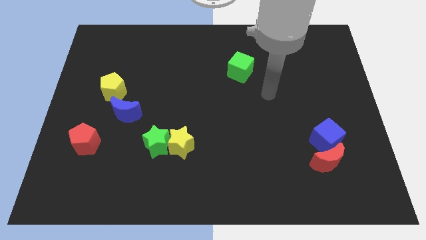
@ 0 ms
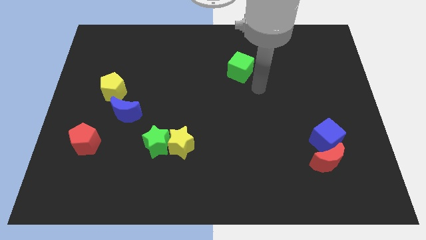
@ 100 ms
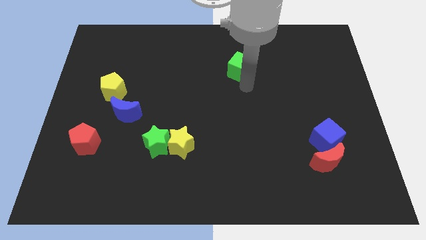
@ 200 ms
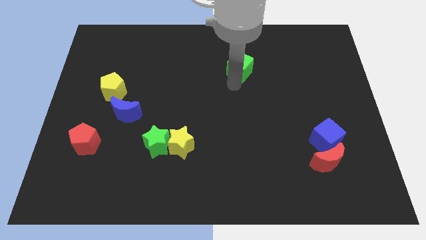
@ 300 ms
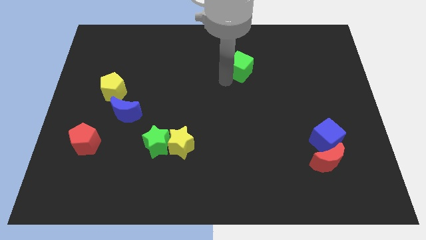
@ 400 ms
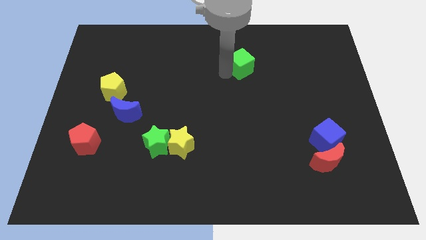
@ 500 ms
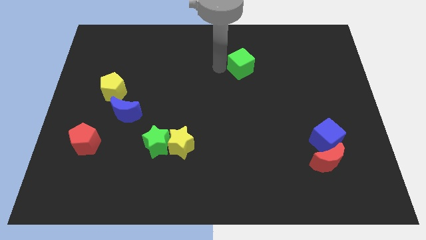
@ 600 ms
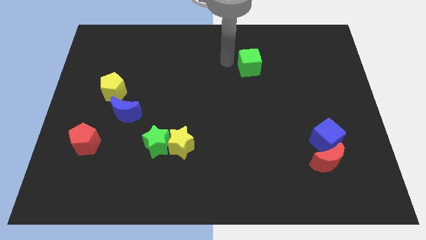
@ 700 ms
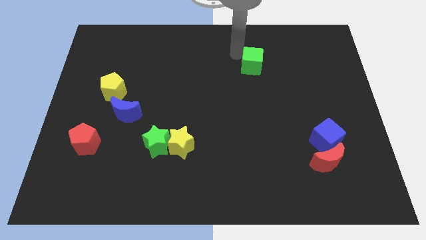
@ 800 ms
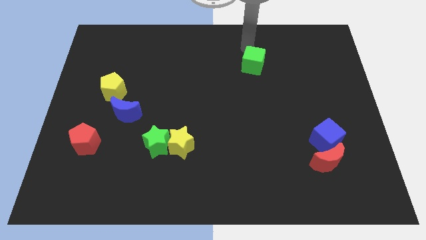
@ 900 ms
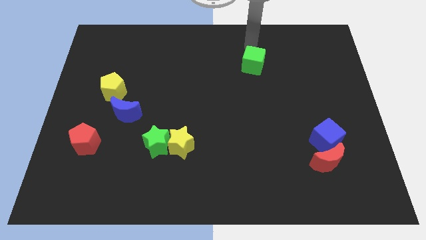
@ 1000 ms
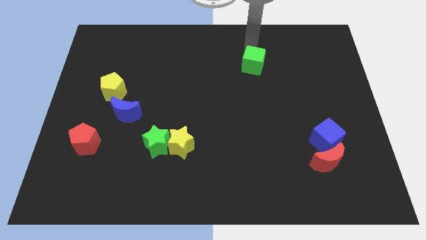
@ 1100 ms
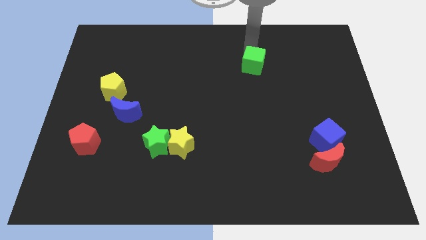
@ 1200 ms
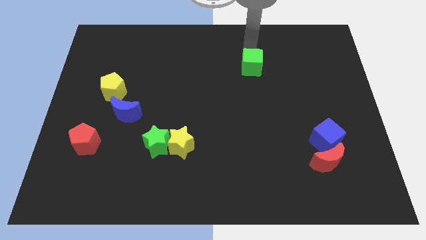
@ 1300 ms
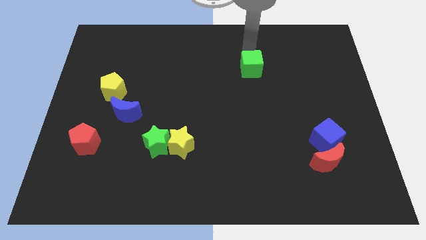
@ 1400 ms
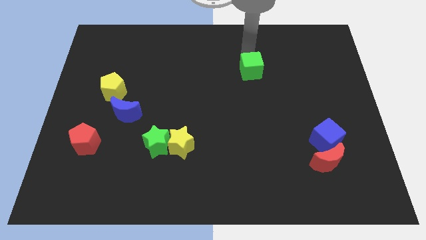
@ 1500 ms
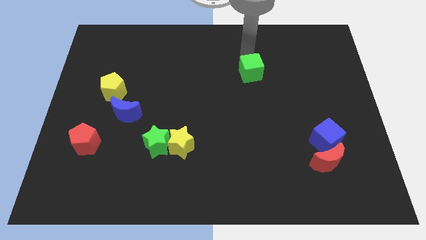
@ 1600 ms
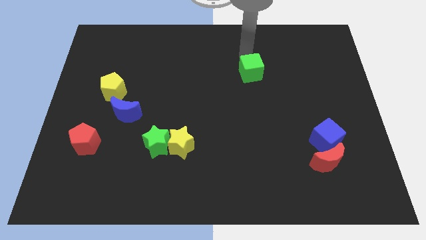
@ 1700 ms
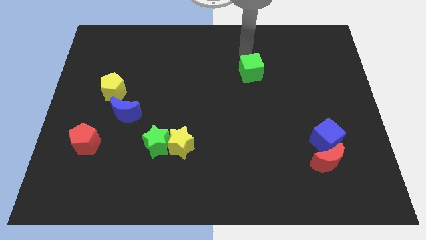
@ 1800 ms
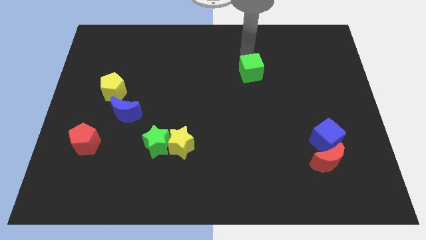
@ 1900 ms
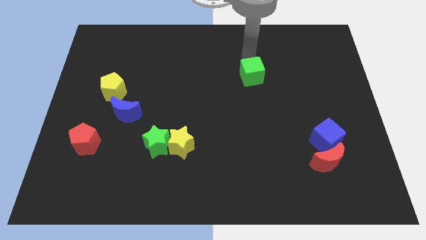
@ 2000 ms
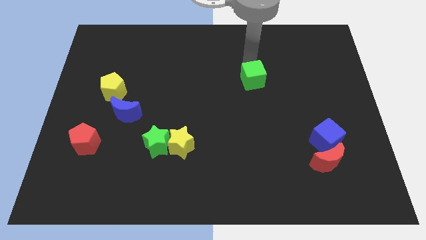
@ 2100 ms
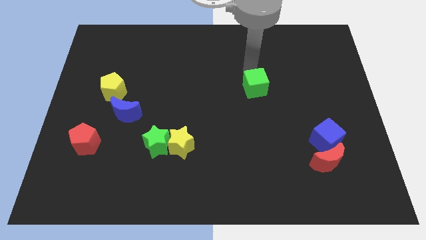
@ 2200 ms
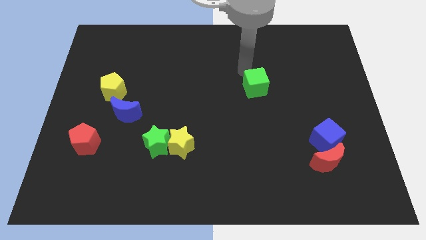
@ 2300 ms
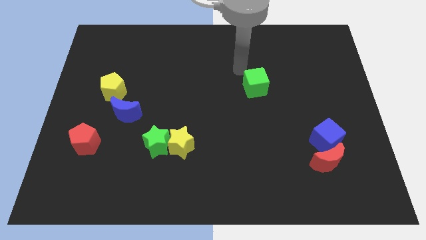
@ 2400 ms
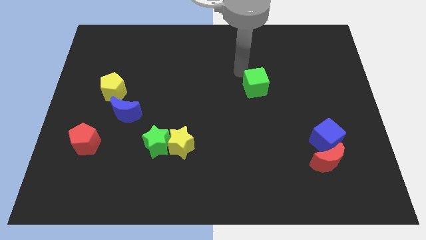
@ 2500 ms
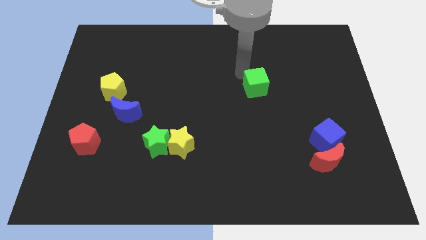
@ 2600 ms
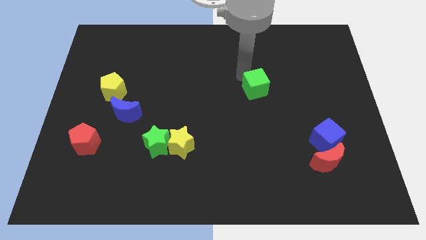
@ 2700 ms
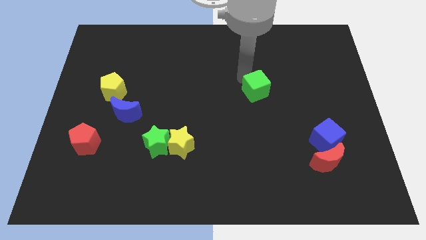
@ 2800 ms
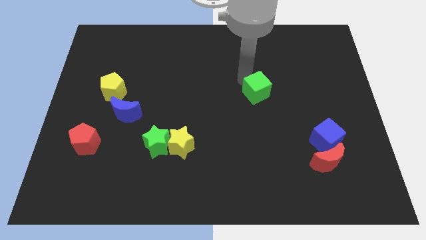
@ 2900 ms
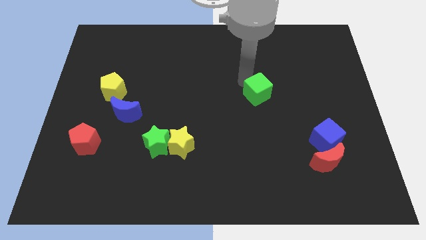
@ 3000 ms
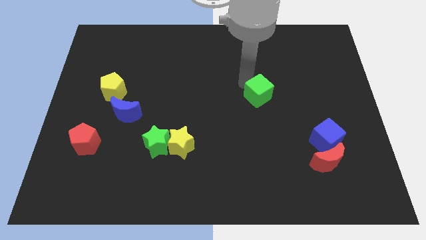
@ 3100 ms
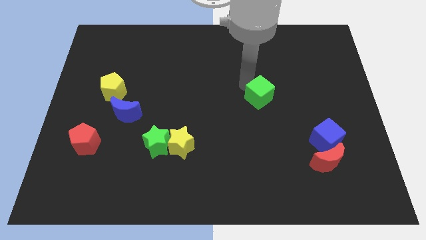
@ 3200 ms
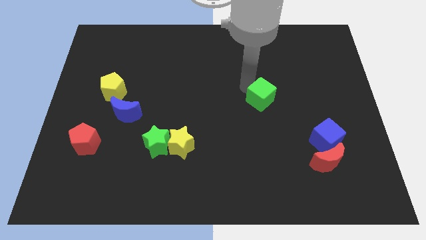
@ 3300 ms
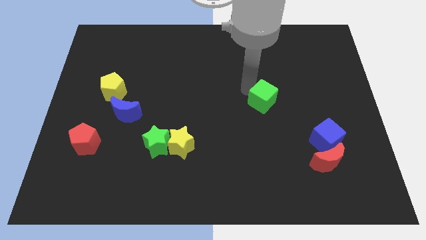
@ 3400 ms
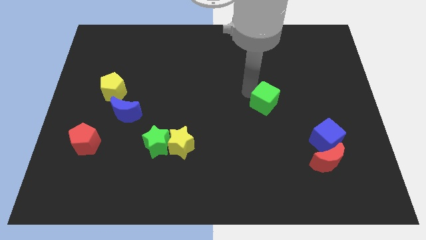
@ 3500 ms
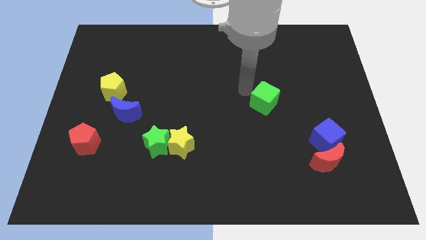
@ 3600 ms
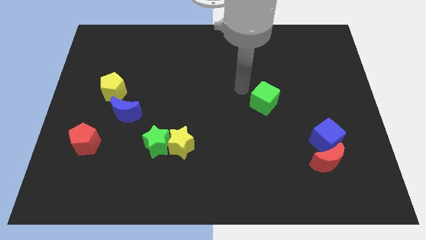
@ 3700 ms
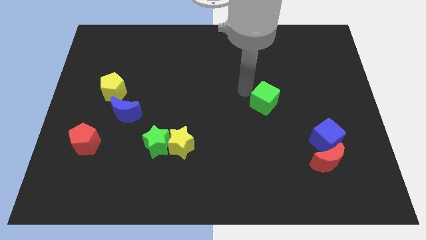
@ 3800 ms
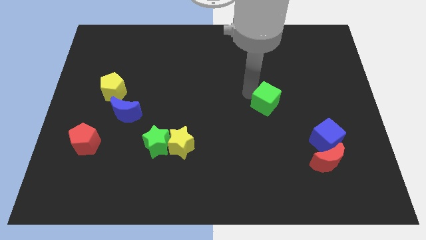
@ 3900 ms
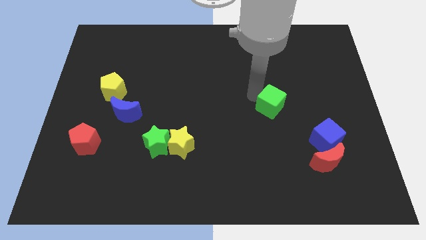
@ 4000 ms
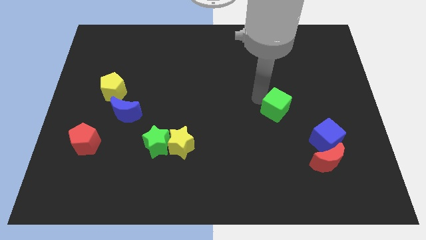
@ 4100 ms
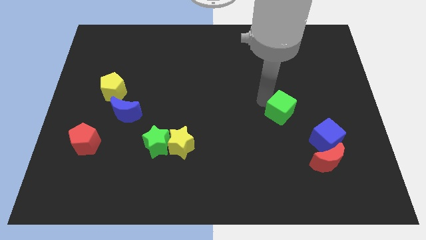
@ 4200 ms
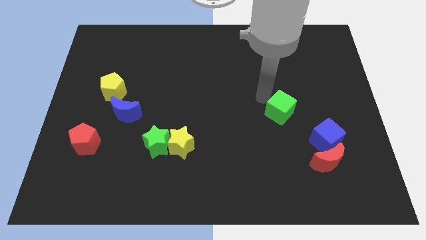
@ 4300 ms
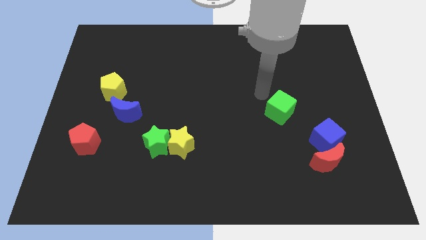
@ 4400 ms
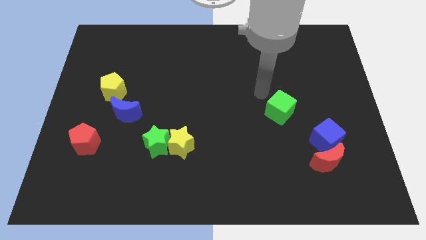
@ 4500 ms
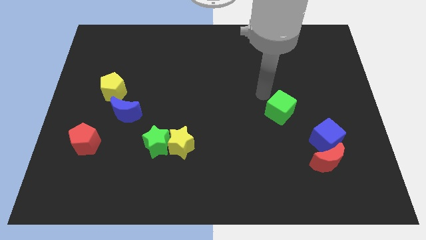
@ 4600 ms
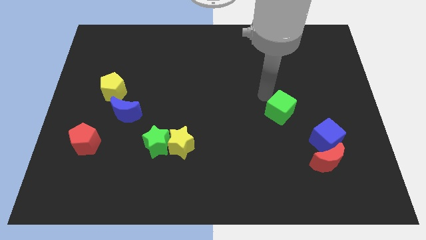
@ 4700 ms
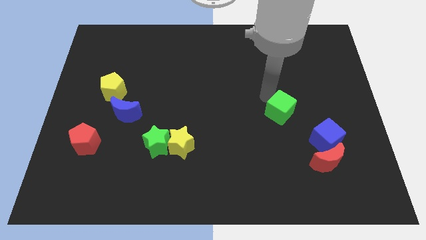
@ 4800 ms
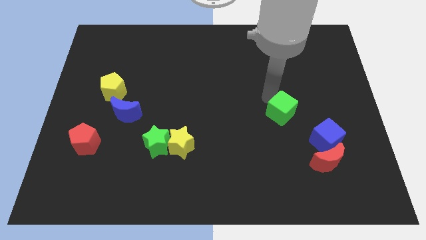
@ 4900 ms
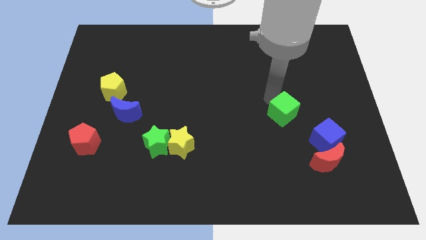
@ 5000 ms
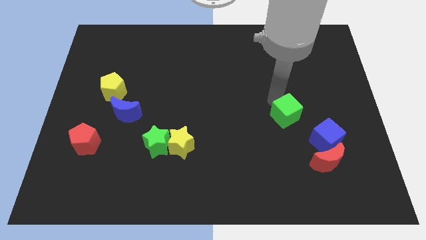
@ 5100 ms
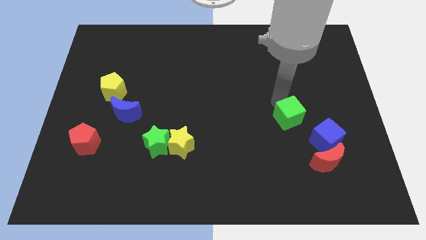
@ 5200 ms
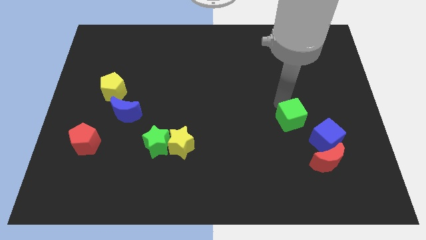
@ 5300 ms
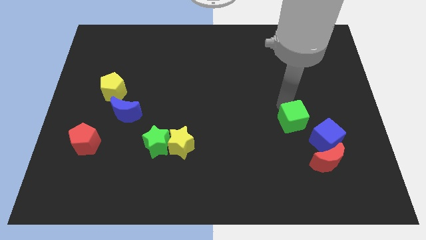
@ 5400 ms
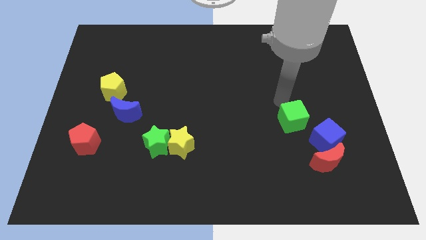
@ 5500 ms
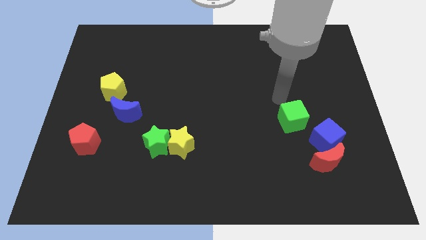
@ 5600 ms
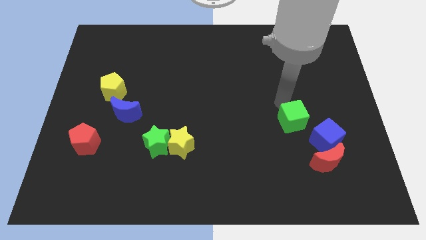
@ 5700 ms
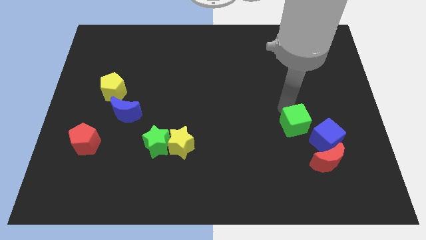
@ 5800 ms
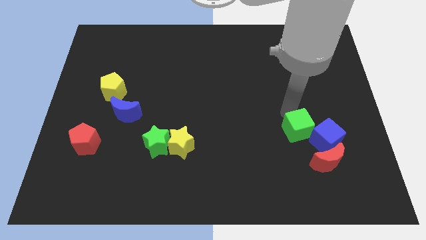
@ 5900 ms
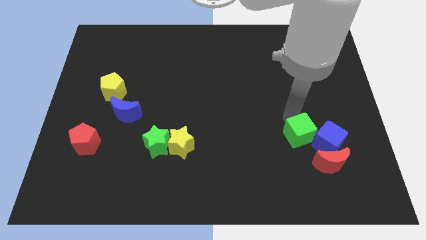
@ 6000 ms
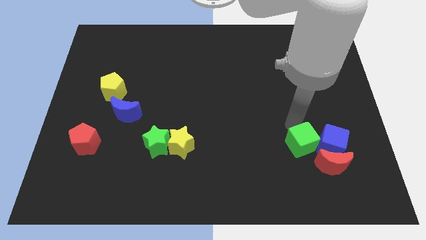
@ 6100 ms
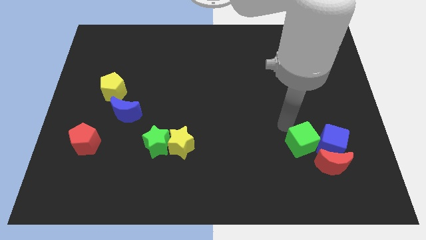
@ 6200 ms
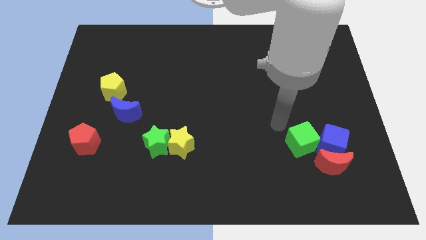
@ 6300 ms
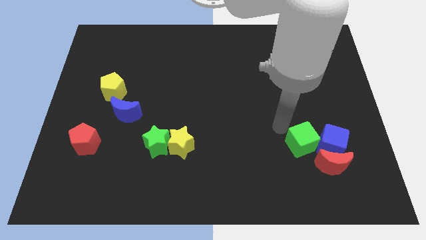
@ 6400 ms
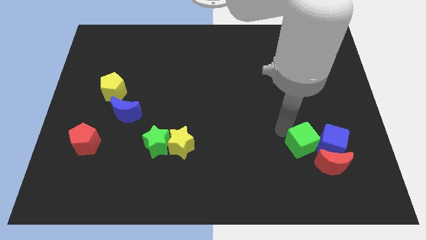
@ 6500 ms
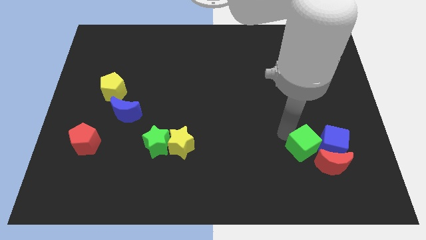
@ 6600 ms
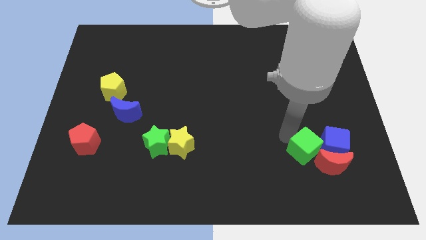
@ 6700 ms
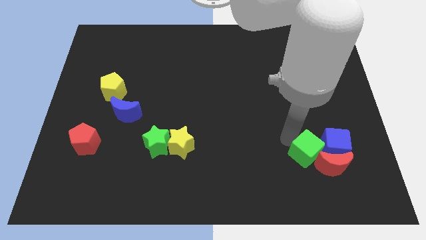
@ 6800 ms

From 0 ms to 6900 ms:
put the green cube close to the red moon
